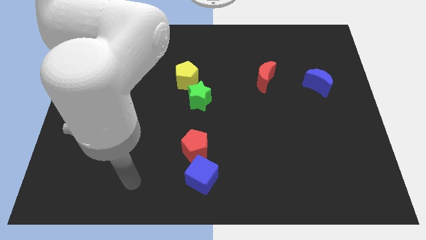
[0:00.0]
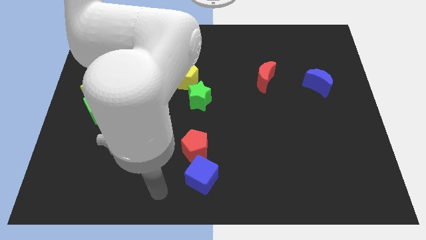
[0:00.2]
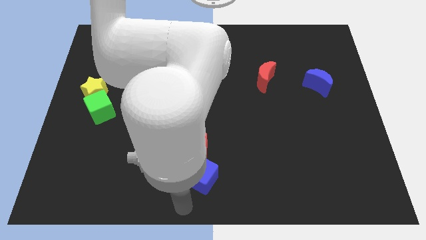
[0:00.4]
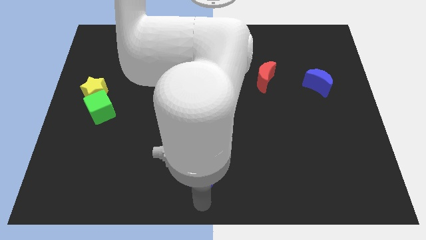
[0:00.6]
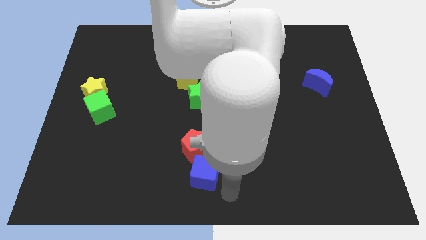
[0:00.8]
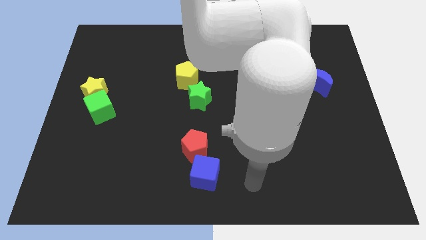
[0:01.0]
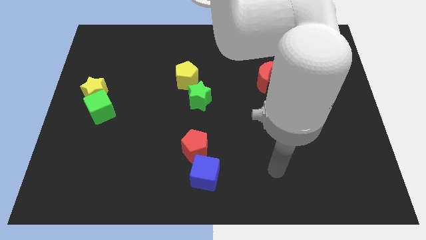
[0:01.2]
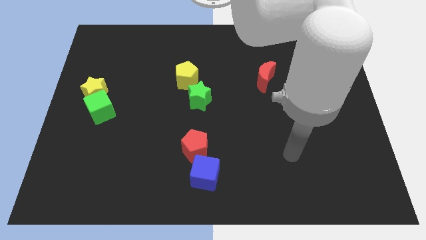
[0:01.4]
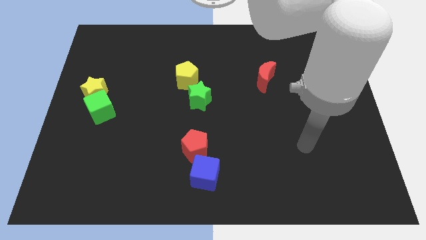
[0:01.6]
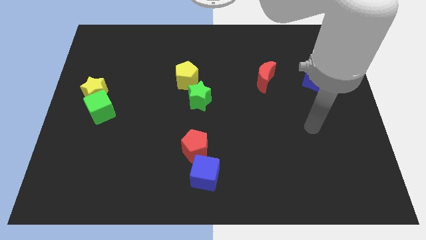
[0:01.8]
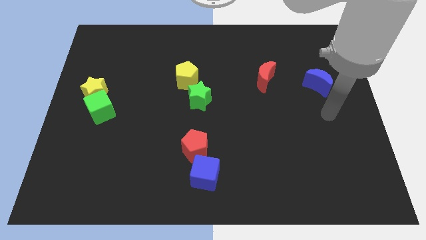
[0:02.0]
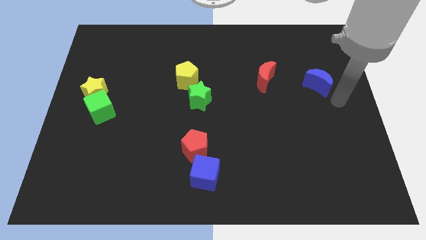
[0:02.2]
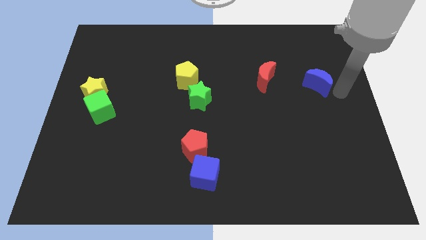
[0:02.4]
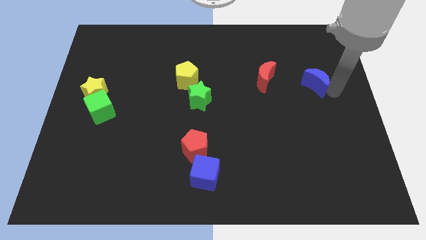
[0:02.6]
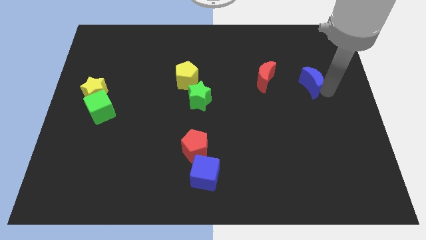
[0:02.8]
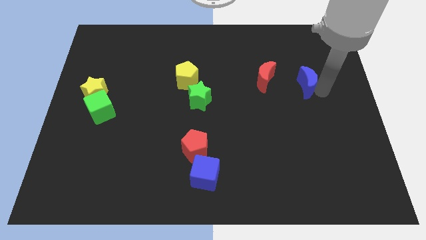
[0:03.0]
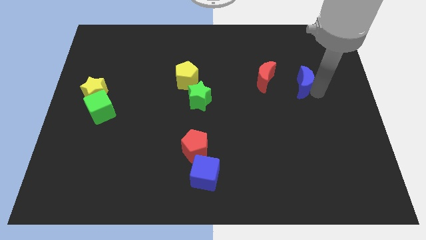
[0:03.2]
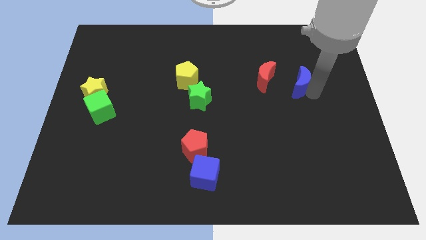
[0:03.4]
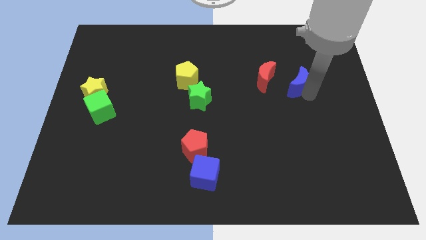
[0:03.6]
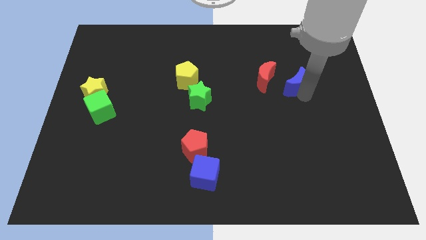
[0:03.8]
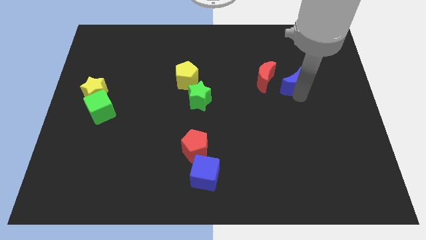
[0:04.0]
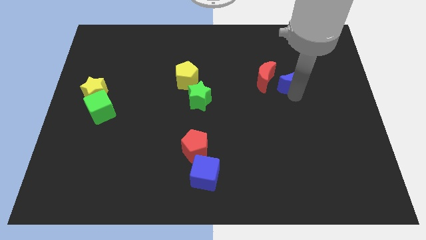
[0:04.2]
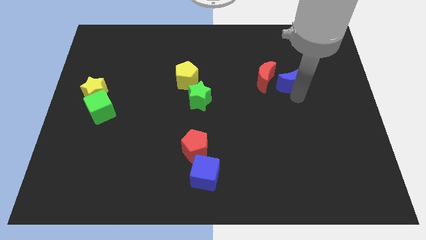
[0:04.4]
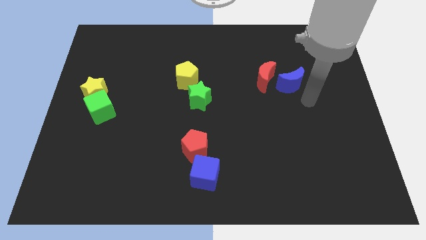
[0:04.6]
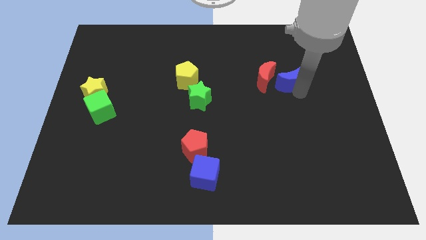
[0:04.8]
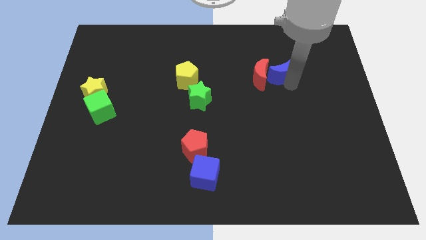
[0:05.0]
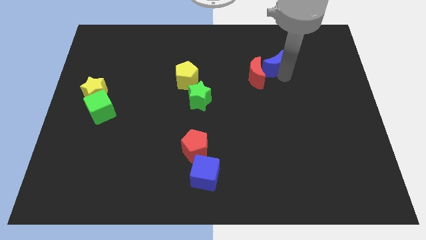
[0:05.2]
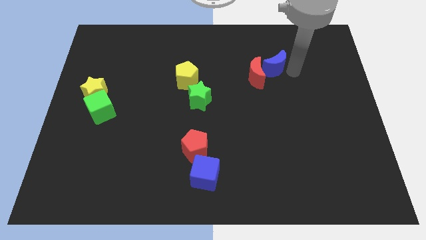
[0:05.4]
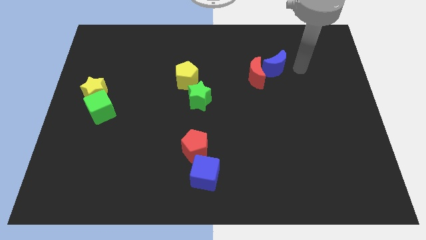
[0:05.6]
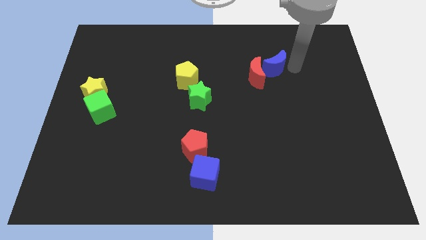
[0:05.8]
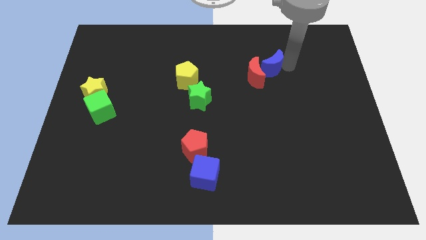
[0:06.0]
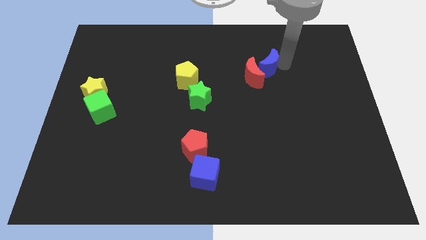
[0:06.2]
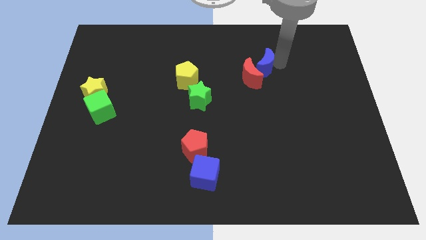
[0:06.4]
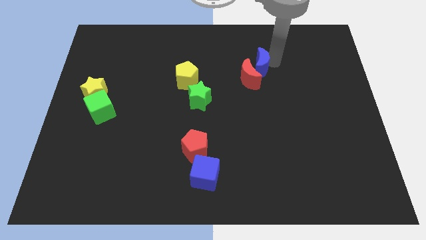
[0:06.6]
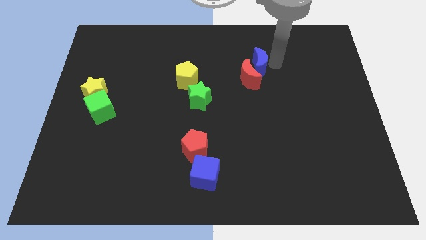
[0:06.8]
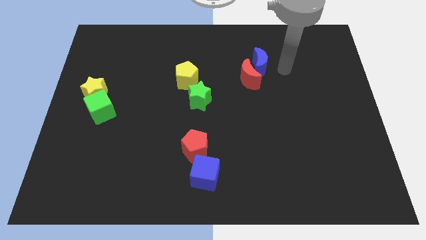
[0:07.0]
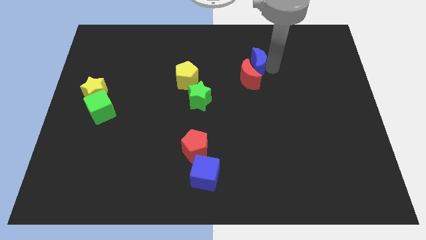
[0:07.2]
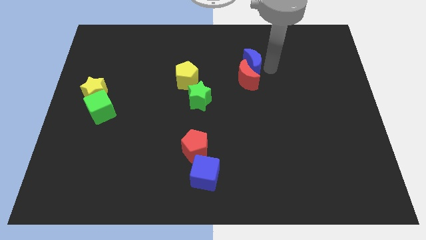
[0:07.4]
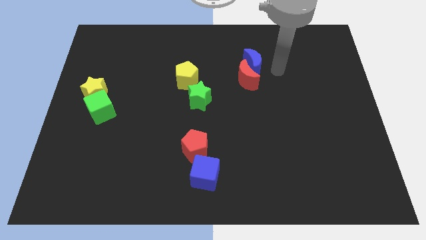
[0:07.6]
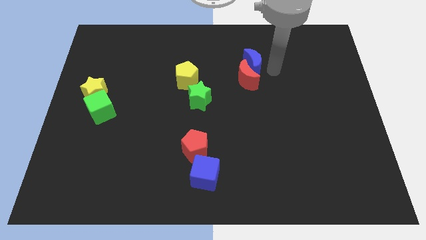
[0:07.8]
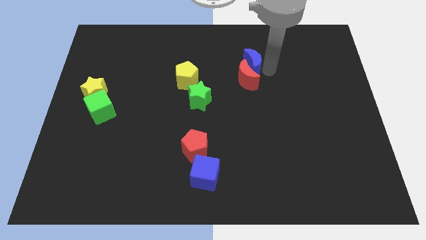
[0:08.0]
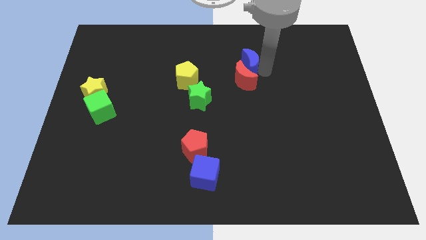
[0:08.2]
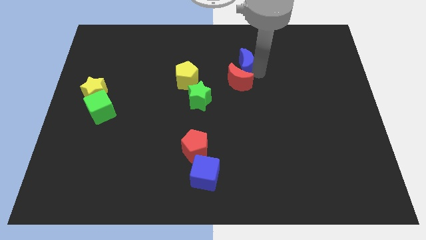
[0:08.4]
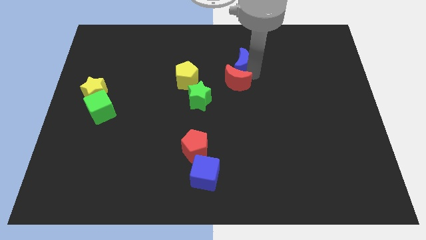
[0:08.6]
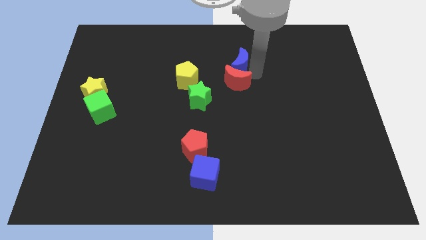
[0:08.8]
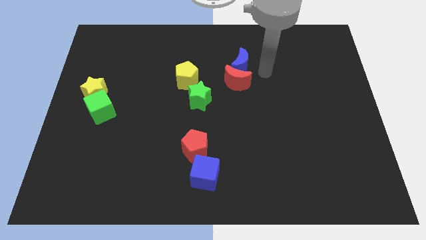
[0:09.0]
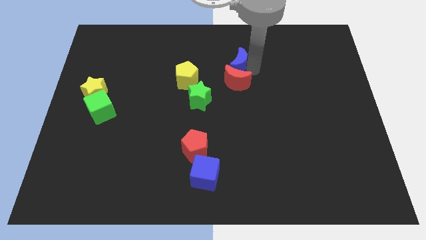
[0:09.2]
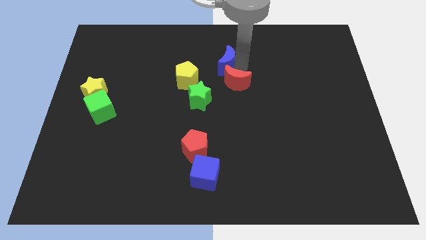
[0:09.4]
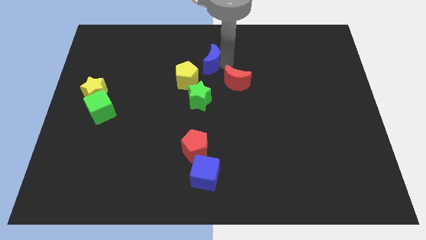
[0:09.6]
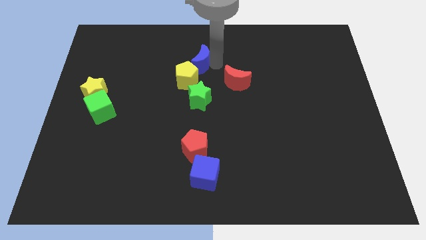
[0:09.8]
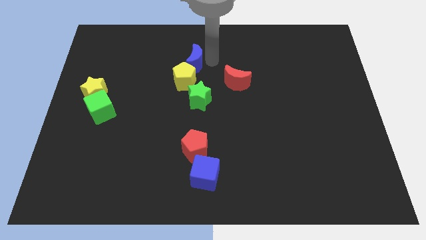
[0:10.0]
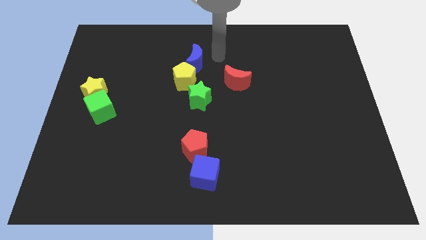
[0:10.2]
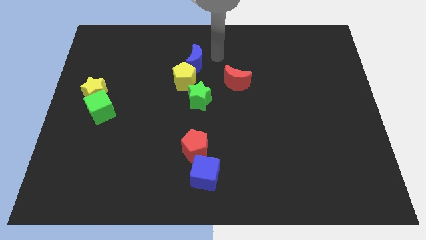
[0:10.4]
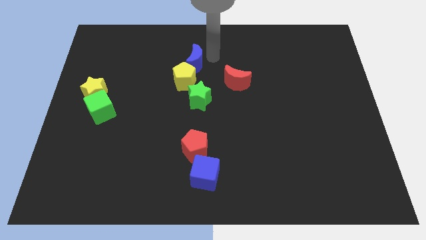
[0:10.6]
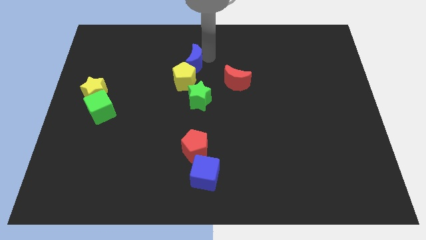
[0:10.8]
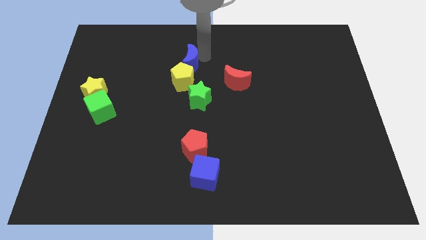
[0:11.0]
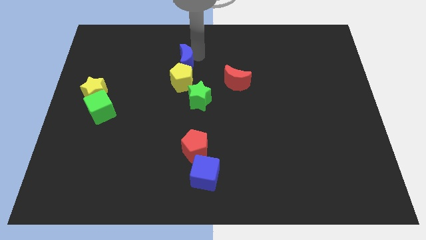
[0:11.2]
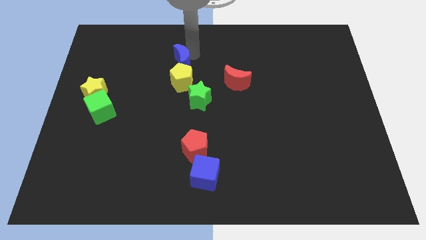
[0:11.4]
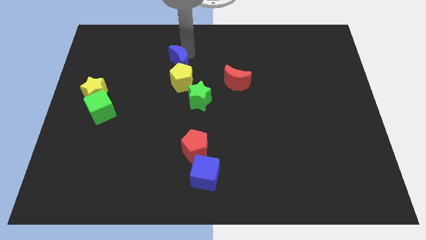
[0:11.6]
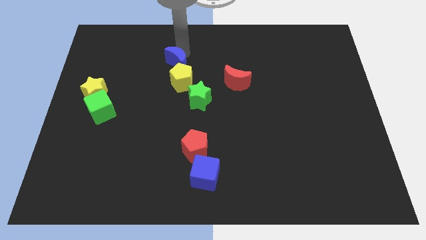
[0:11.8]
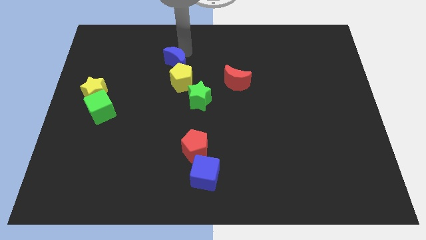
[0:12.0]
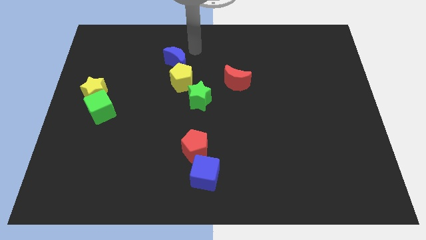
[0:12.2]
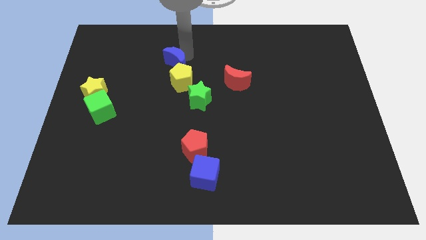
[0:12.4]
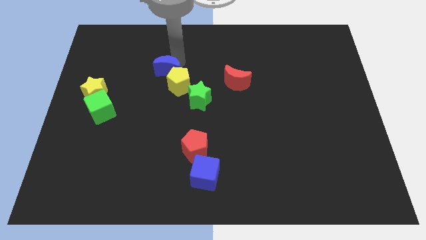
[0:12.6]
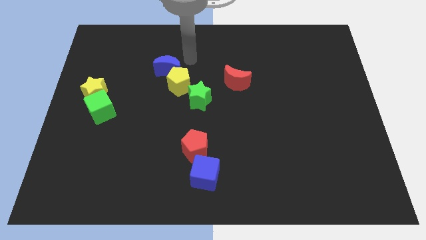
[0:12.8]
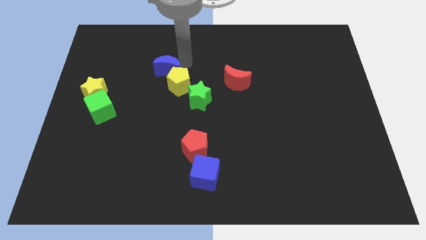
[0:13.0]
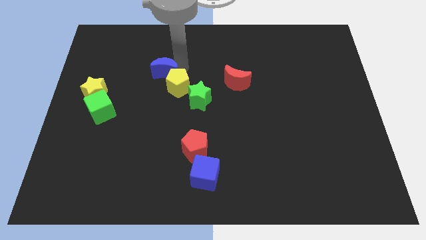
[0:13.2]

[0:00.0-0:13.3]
slide the blue moon left of the yellow pentagon

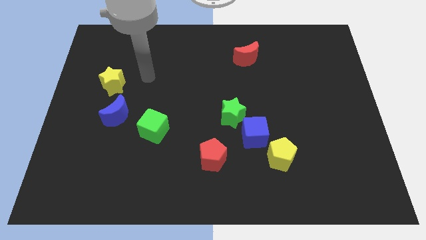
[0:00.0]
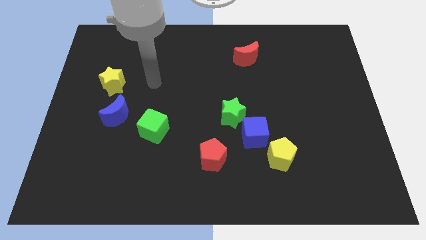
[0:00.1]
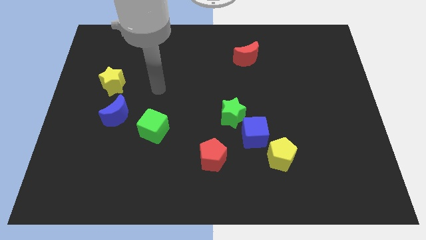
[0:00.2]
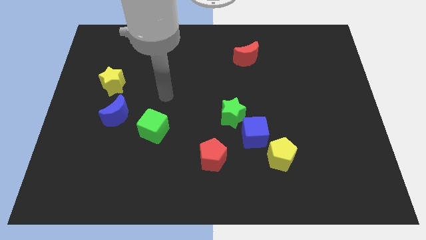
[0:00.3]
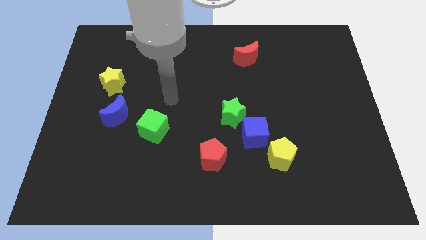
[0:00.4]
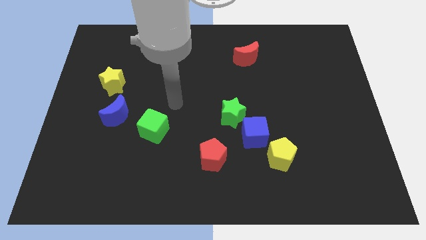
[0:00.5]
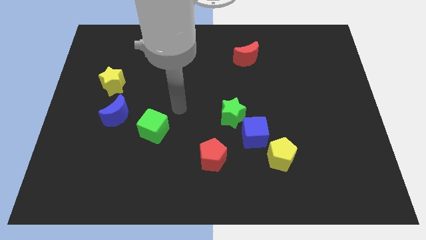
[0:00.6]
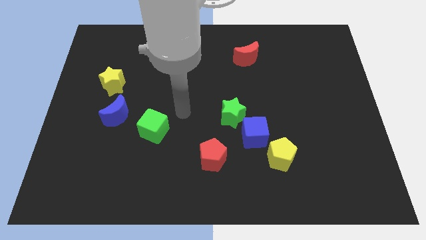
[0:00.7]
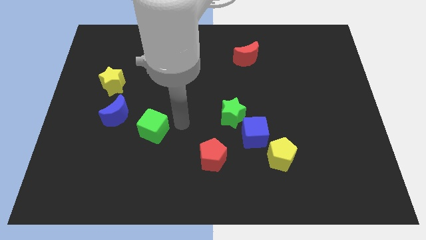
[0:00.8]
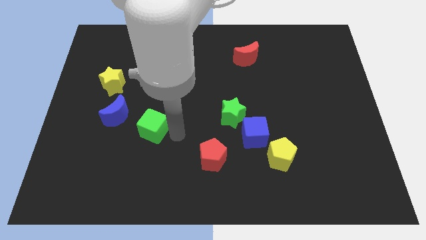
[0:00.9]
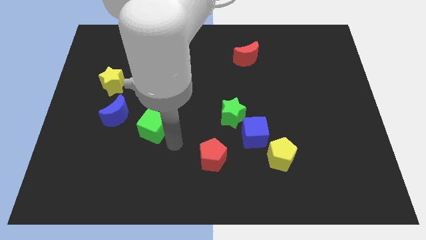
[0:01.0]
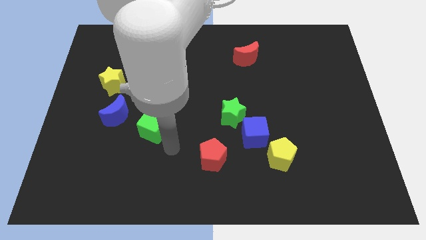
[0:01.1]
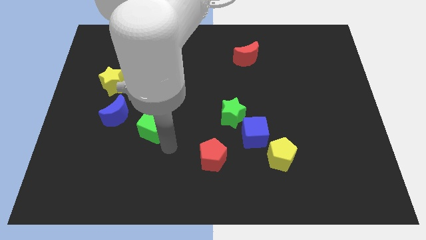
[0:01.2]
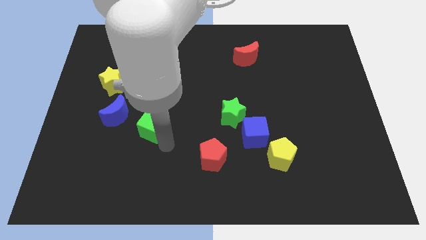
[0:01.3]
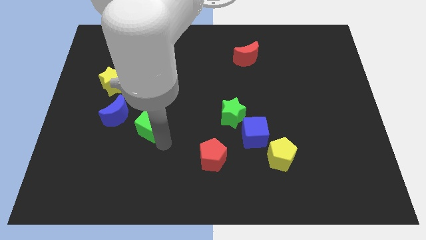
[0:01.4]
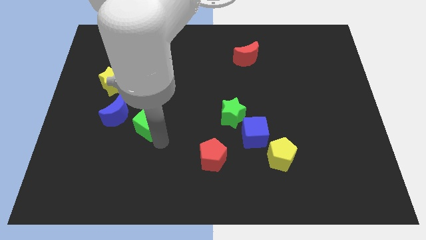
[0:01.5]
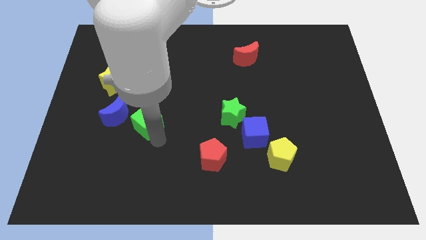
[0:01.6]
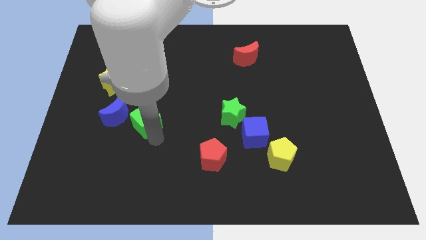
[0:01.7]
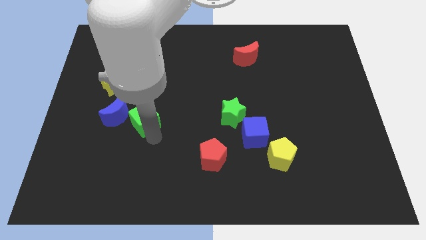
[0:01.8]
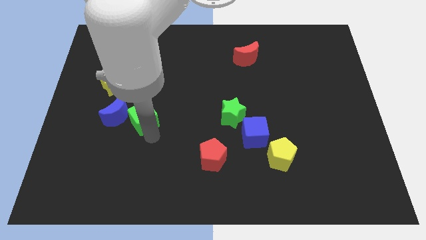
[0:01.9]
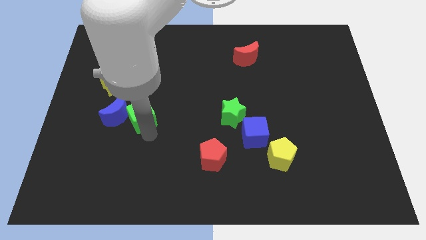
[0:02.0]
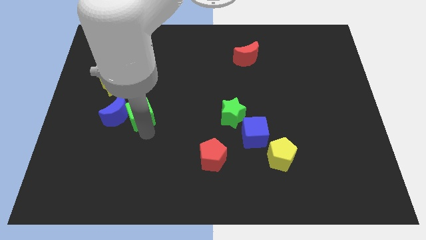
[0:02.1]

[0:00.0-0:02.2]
put the green cube to the bottom right side of the yellow star
